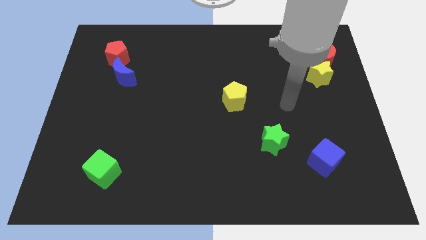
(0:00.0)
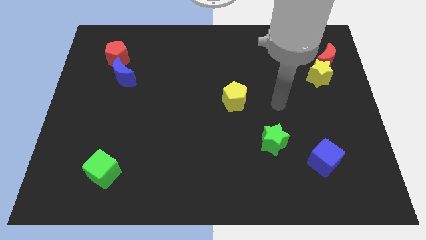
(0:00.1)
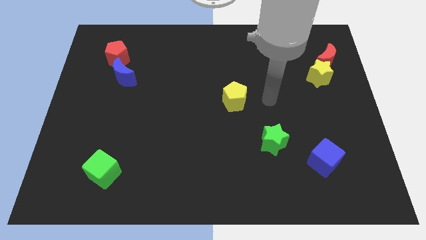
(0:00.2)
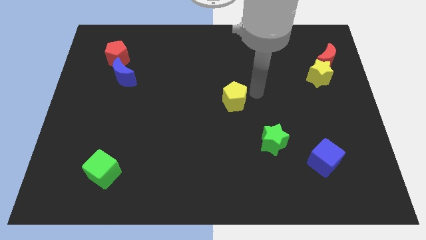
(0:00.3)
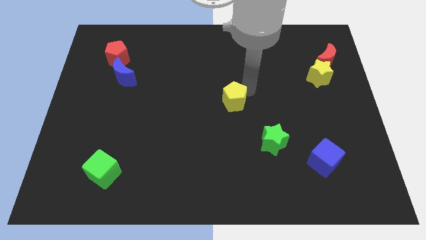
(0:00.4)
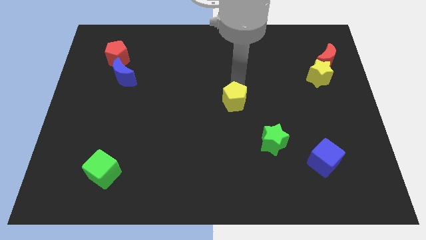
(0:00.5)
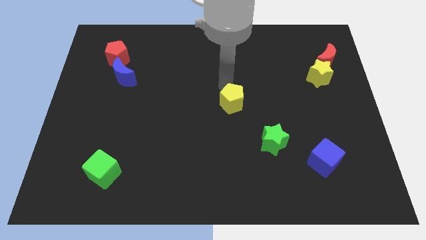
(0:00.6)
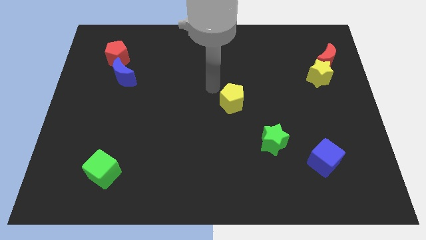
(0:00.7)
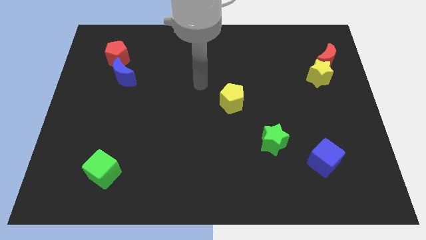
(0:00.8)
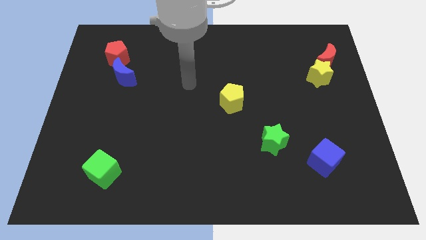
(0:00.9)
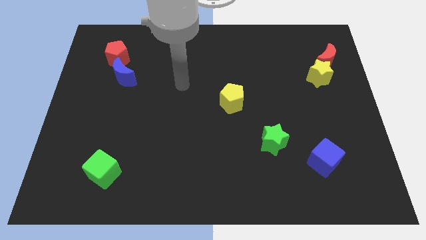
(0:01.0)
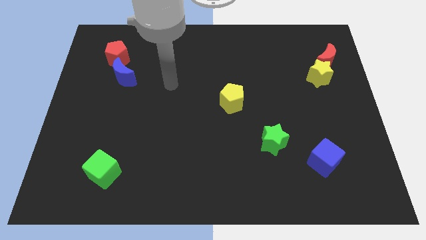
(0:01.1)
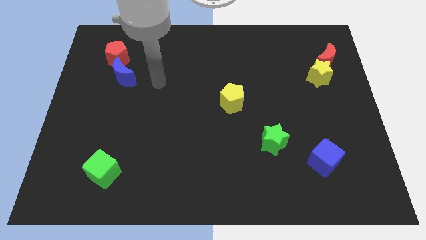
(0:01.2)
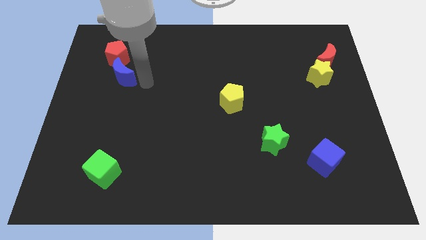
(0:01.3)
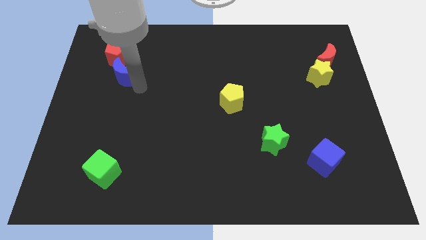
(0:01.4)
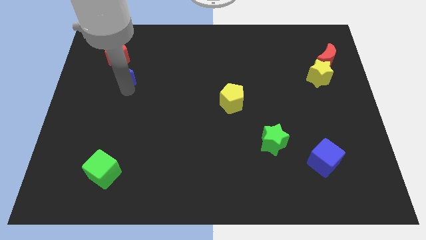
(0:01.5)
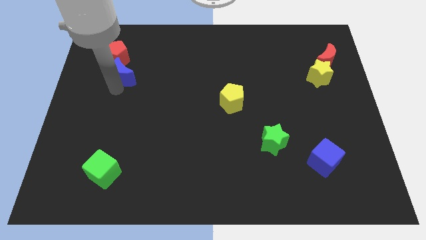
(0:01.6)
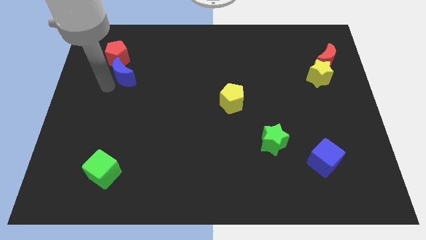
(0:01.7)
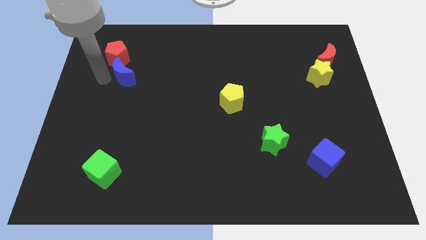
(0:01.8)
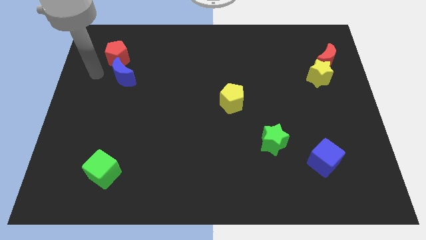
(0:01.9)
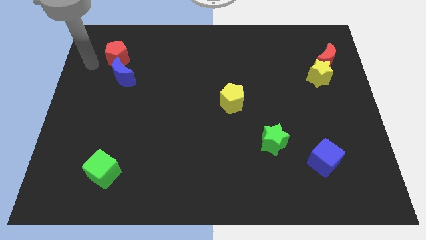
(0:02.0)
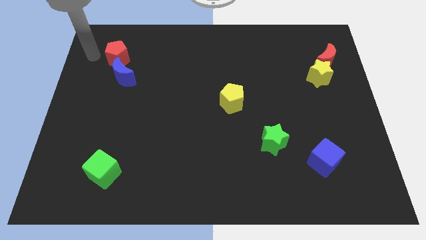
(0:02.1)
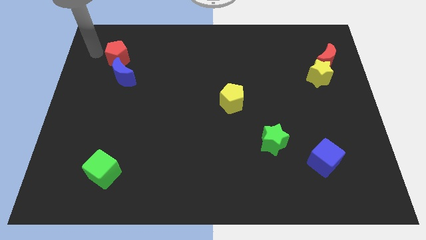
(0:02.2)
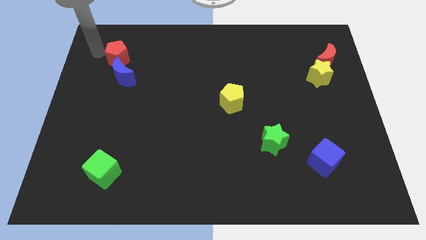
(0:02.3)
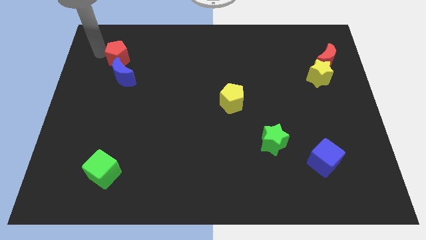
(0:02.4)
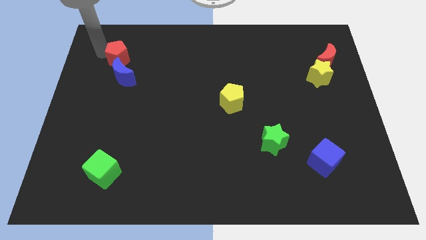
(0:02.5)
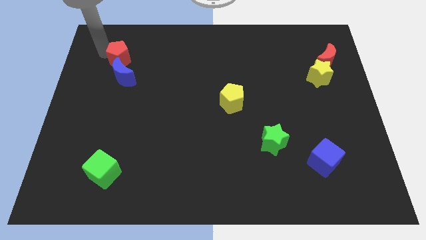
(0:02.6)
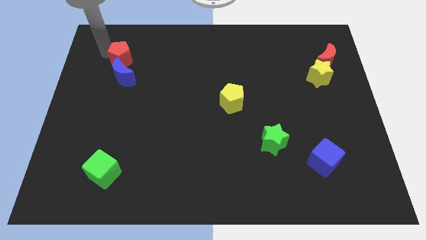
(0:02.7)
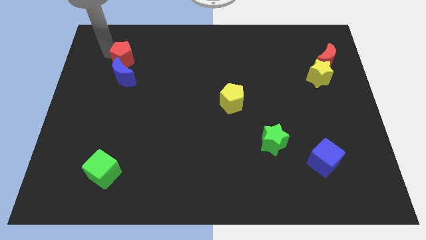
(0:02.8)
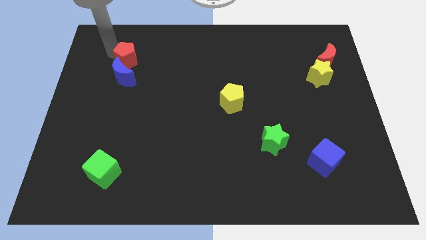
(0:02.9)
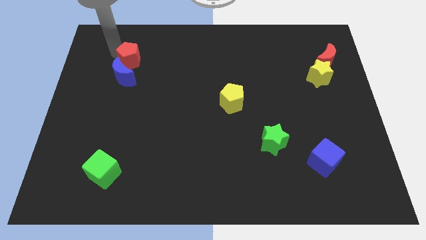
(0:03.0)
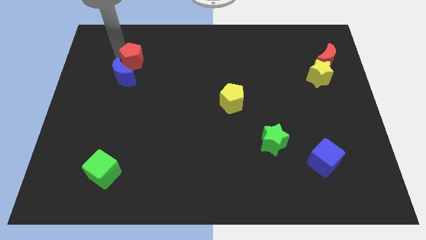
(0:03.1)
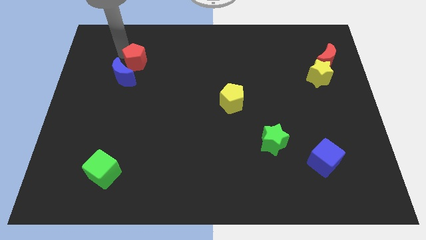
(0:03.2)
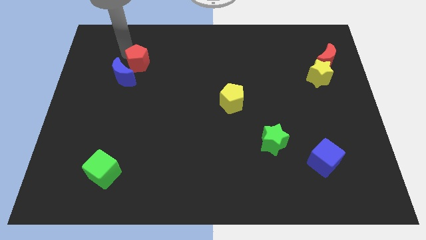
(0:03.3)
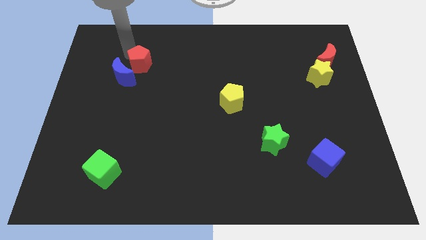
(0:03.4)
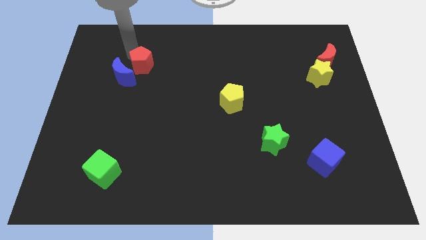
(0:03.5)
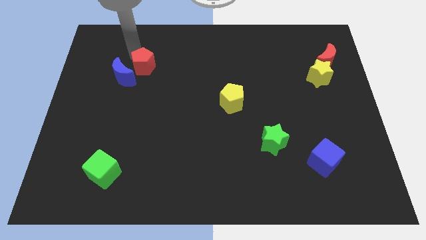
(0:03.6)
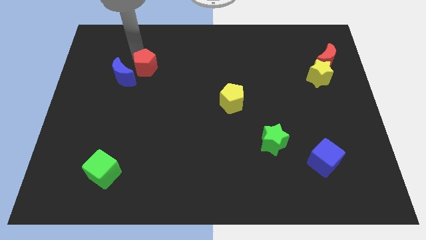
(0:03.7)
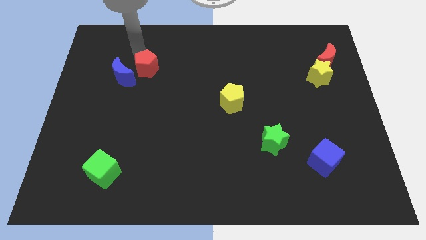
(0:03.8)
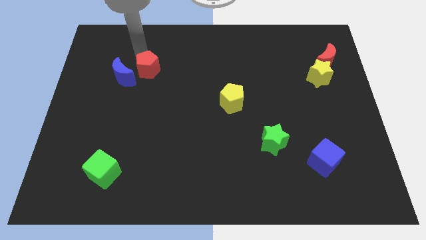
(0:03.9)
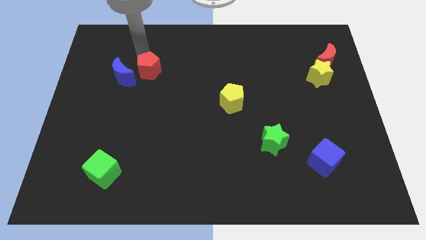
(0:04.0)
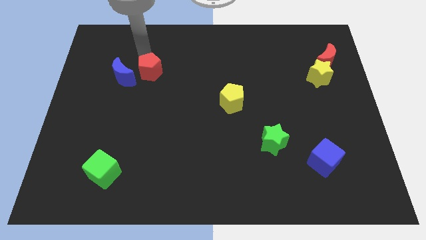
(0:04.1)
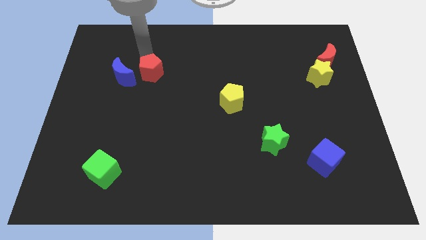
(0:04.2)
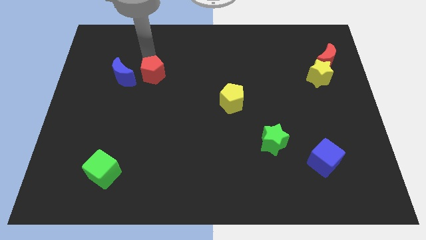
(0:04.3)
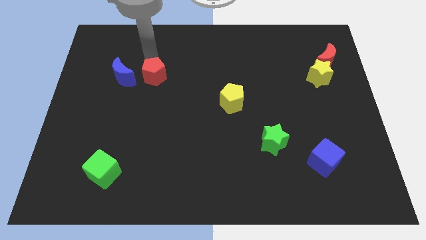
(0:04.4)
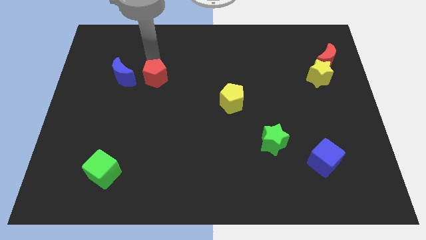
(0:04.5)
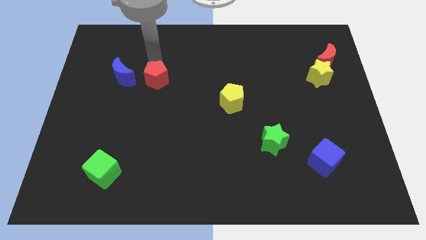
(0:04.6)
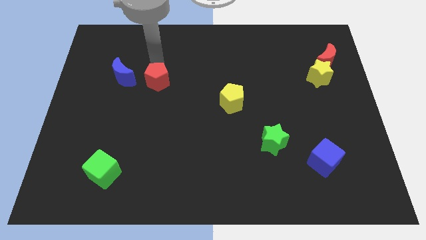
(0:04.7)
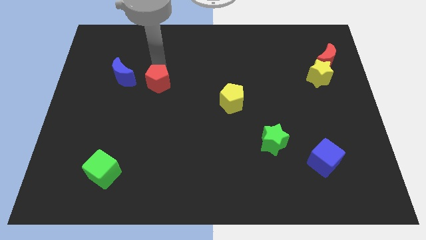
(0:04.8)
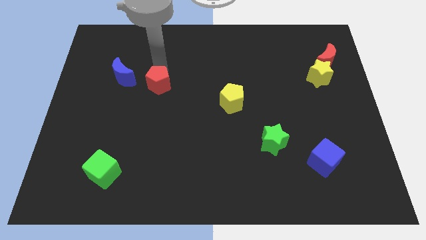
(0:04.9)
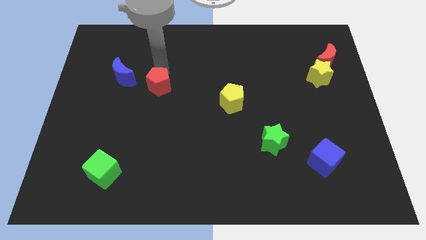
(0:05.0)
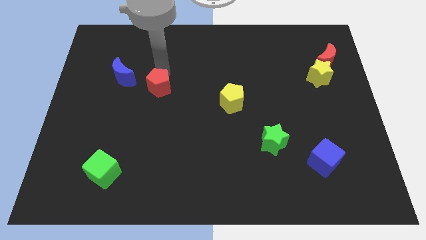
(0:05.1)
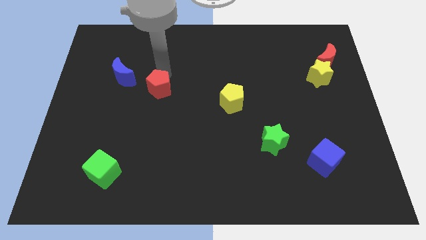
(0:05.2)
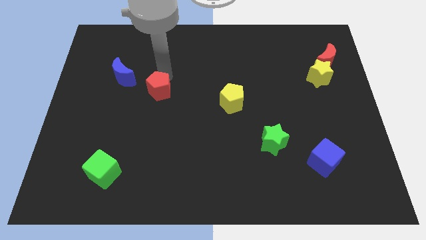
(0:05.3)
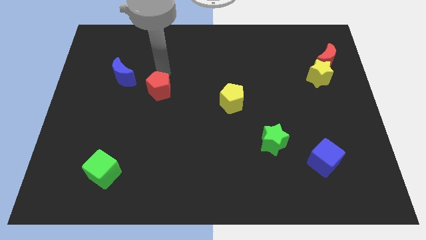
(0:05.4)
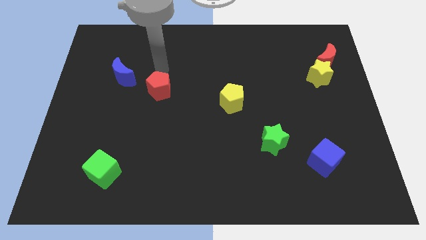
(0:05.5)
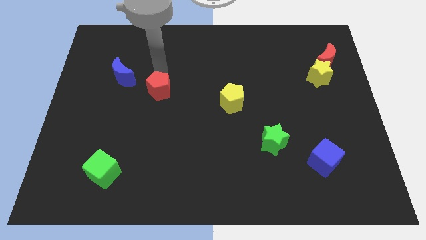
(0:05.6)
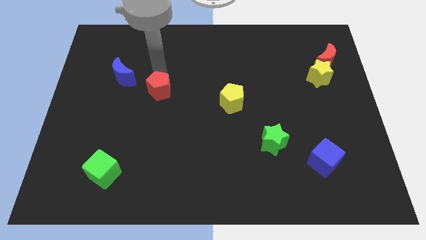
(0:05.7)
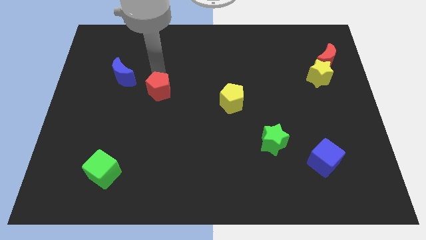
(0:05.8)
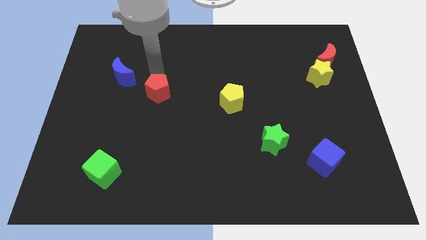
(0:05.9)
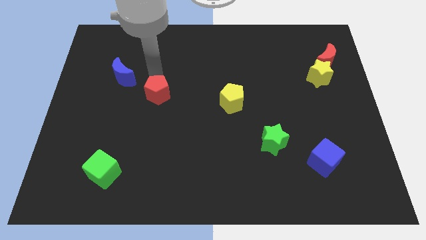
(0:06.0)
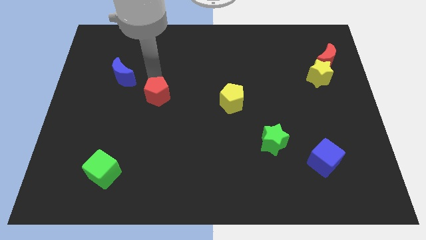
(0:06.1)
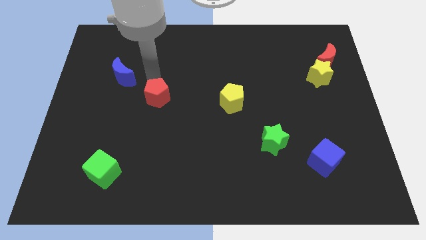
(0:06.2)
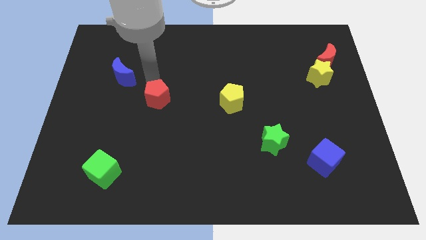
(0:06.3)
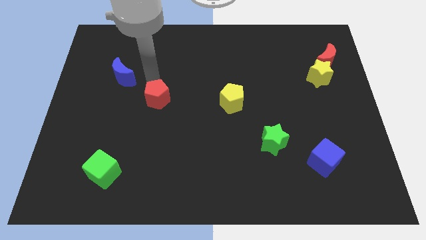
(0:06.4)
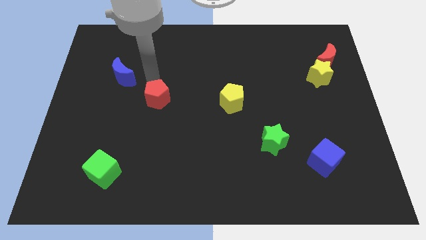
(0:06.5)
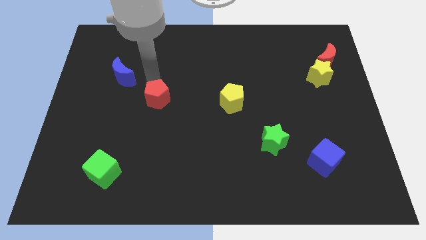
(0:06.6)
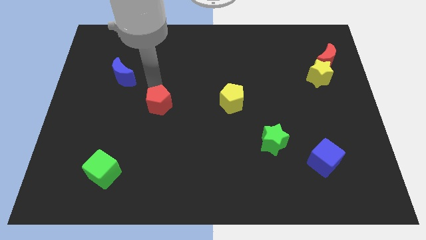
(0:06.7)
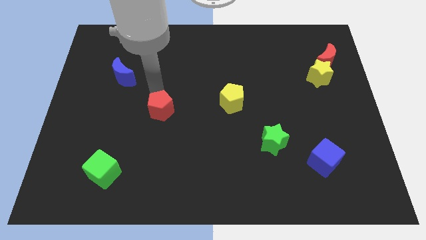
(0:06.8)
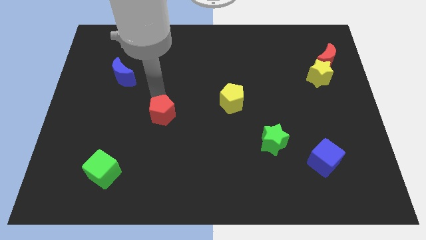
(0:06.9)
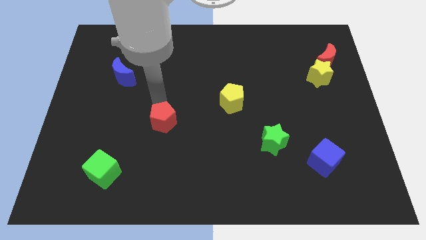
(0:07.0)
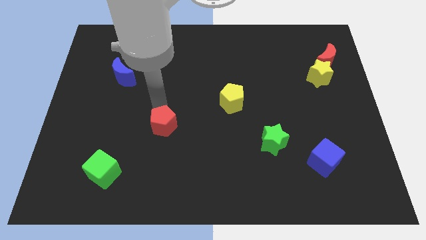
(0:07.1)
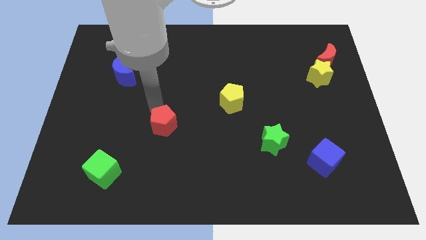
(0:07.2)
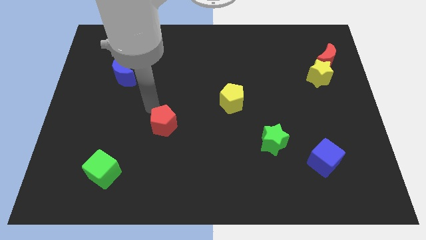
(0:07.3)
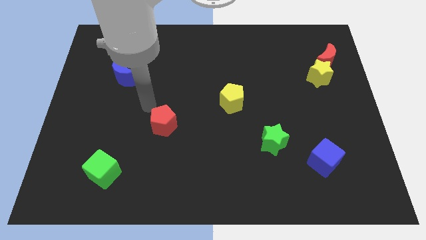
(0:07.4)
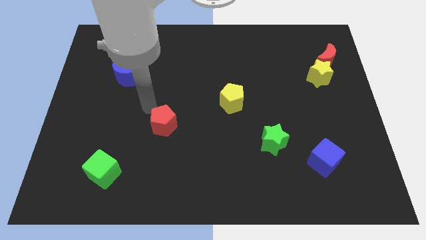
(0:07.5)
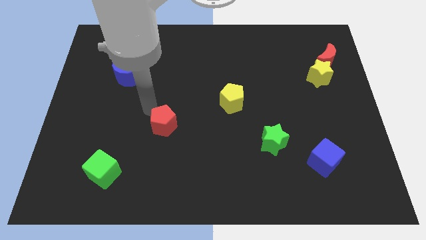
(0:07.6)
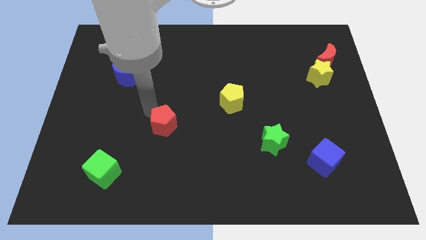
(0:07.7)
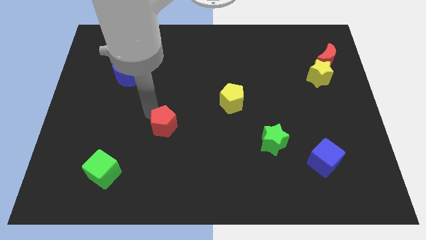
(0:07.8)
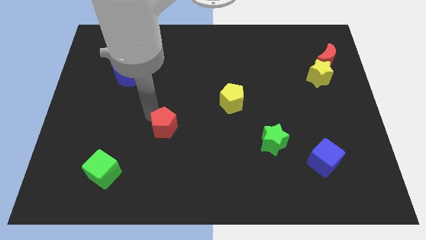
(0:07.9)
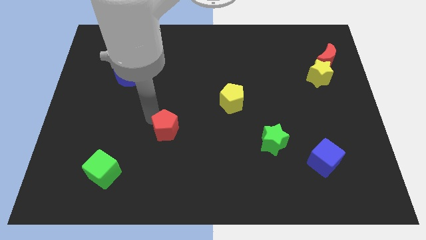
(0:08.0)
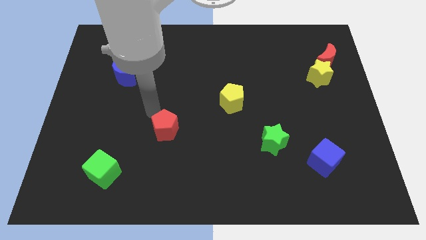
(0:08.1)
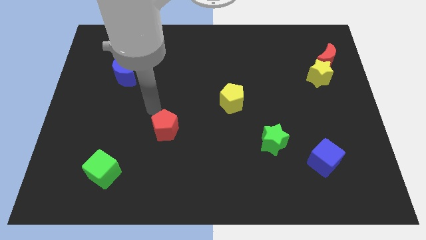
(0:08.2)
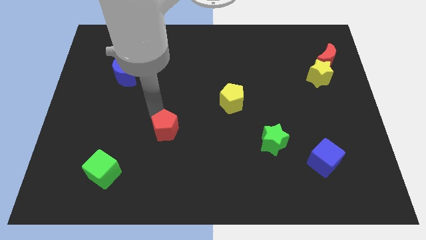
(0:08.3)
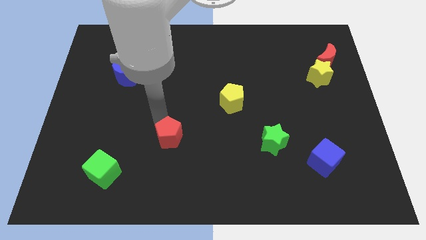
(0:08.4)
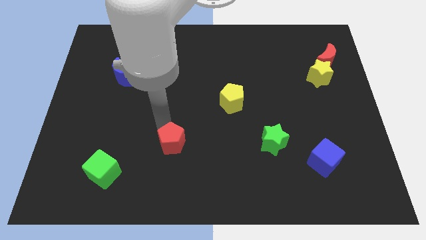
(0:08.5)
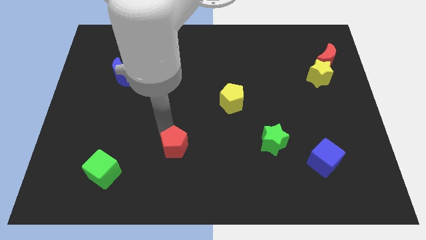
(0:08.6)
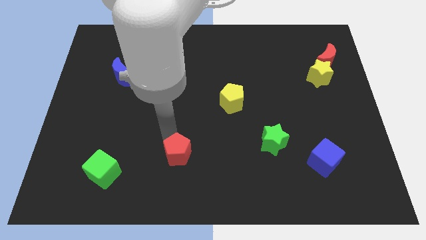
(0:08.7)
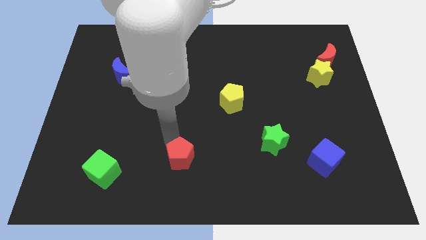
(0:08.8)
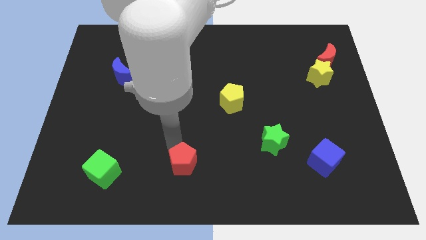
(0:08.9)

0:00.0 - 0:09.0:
push the red pentagon to the bottom
